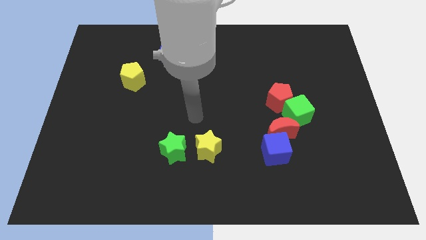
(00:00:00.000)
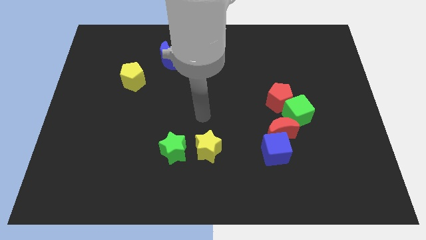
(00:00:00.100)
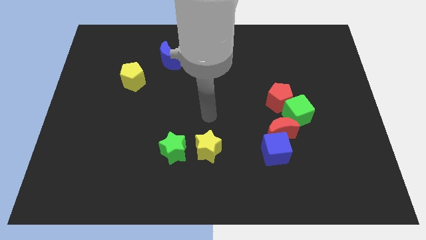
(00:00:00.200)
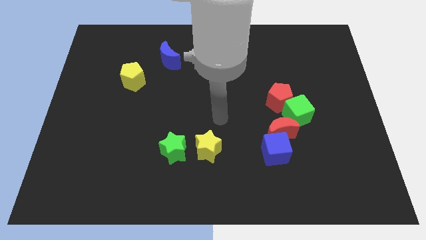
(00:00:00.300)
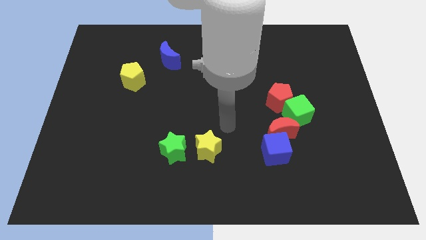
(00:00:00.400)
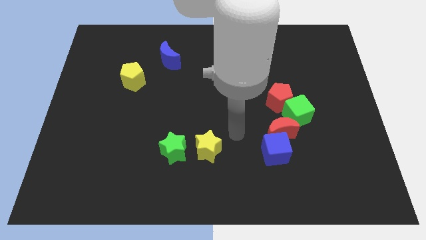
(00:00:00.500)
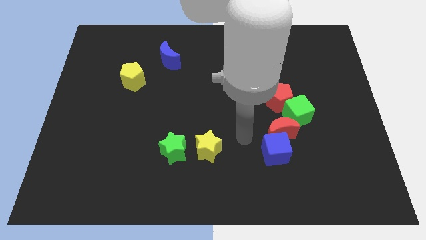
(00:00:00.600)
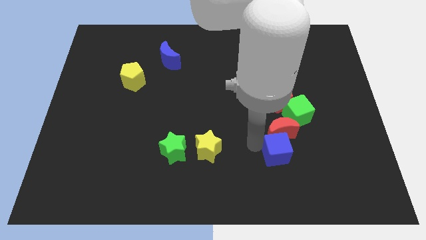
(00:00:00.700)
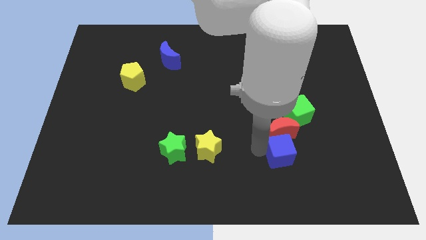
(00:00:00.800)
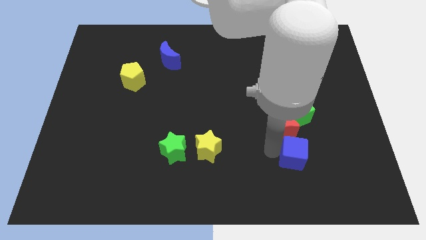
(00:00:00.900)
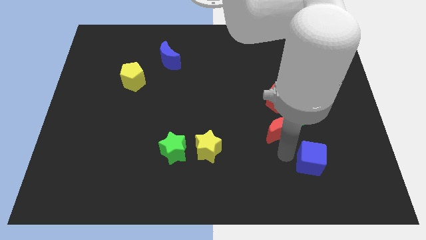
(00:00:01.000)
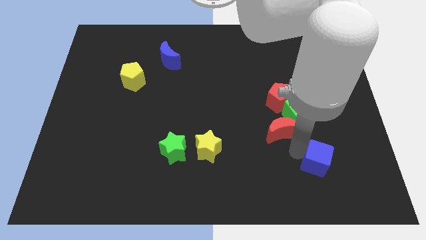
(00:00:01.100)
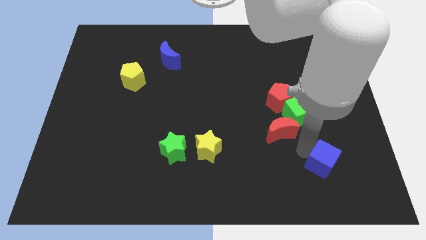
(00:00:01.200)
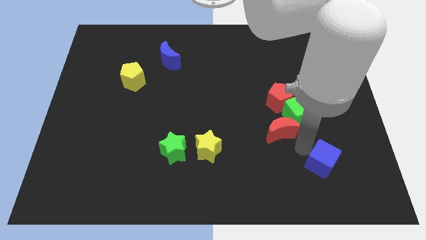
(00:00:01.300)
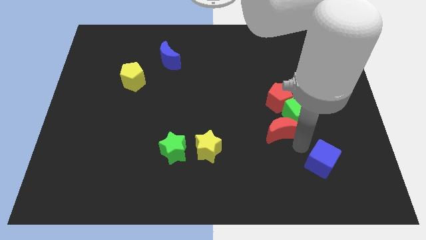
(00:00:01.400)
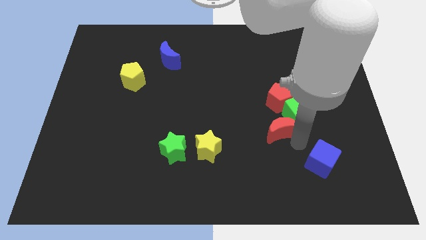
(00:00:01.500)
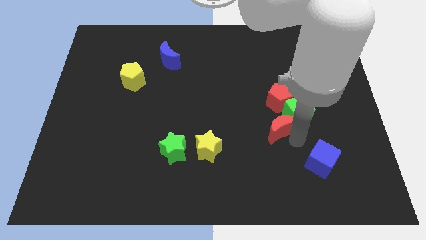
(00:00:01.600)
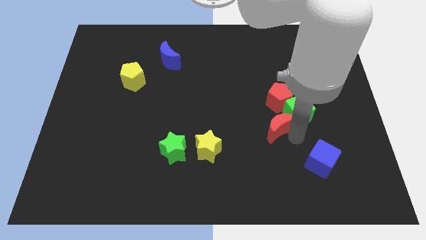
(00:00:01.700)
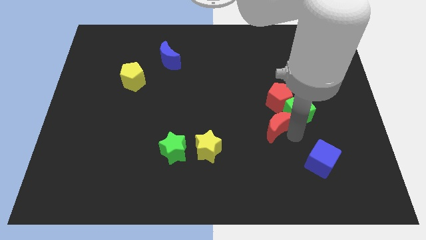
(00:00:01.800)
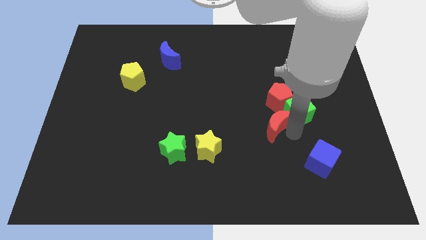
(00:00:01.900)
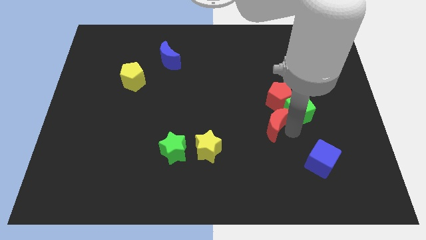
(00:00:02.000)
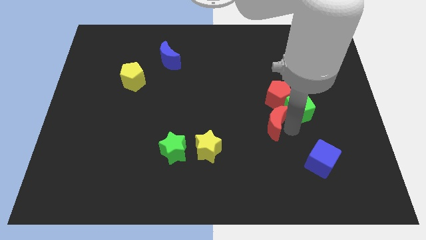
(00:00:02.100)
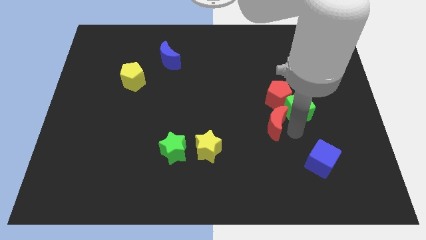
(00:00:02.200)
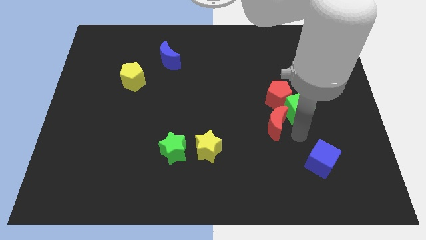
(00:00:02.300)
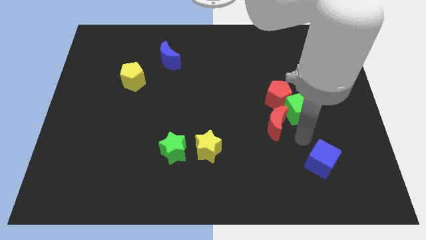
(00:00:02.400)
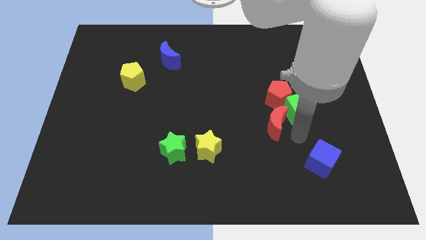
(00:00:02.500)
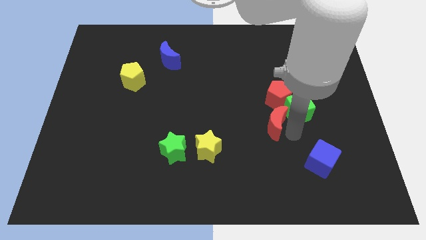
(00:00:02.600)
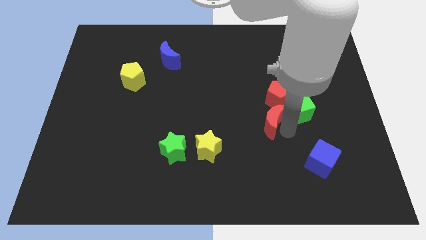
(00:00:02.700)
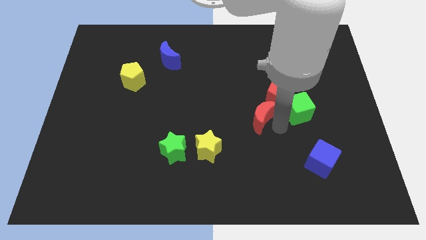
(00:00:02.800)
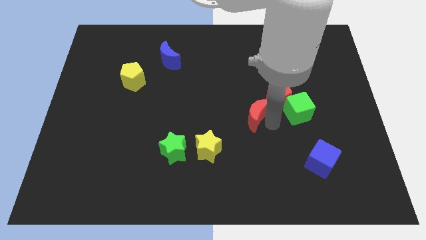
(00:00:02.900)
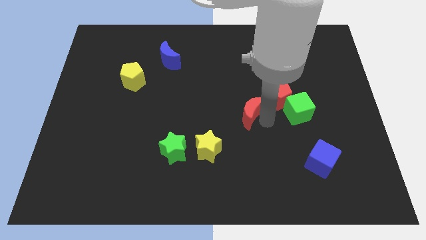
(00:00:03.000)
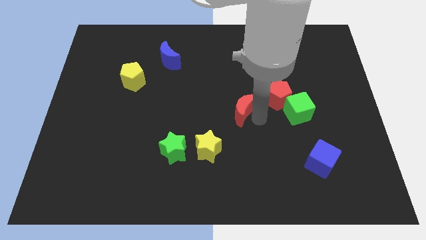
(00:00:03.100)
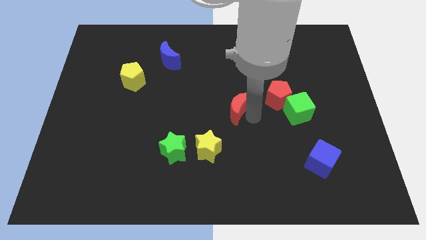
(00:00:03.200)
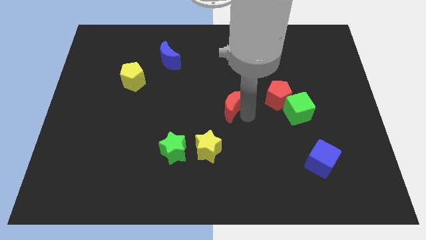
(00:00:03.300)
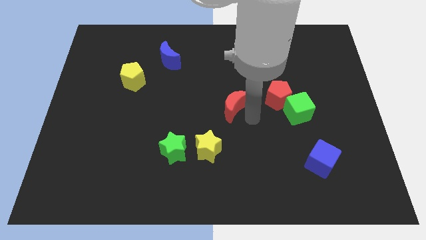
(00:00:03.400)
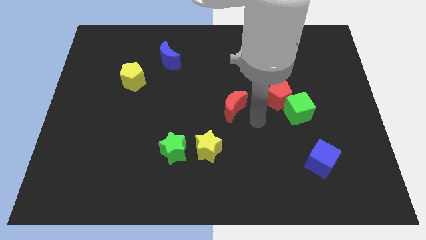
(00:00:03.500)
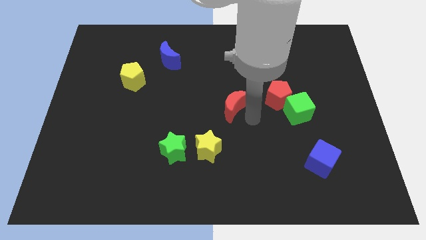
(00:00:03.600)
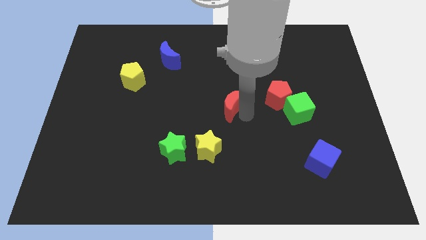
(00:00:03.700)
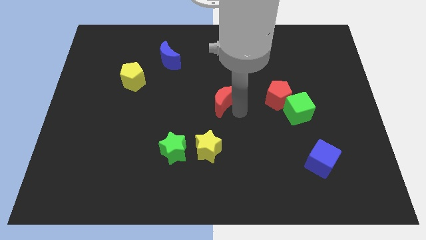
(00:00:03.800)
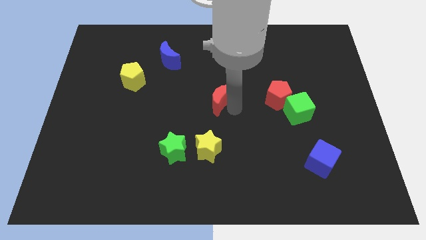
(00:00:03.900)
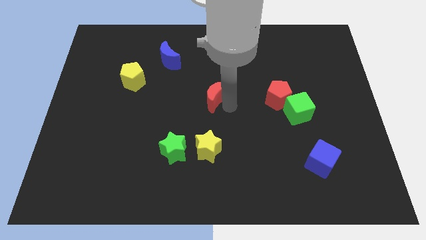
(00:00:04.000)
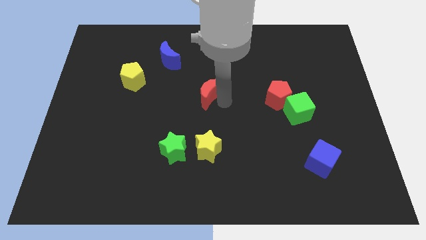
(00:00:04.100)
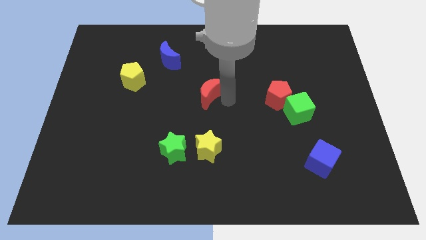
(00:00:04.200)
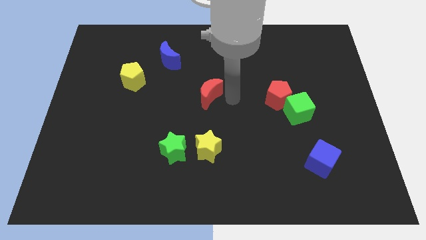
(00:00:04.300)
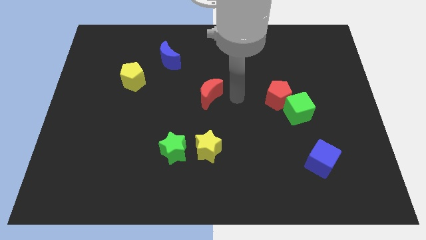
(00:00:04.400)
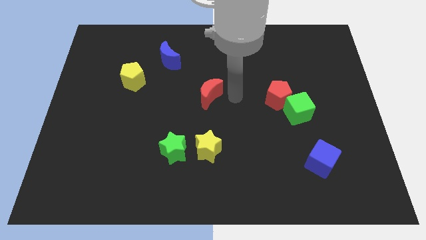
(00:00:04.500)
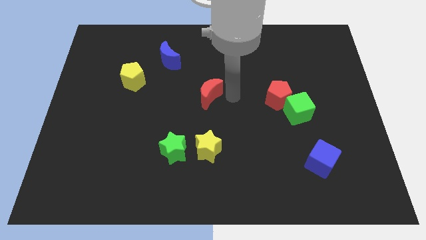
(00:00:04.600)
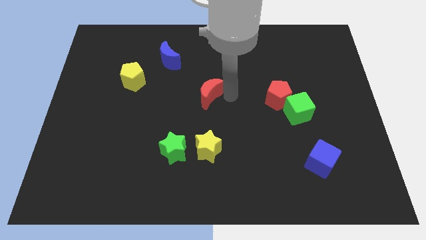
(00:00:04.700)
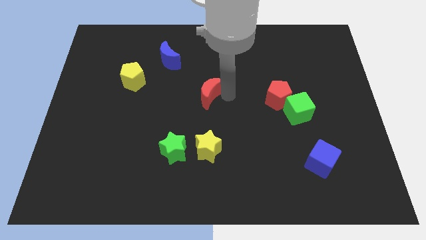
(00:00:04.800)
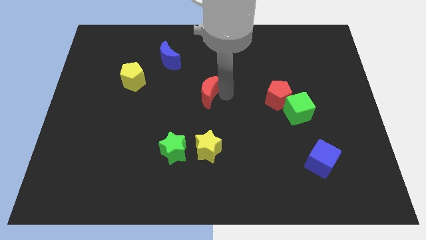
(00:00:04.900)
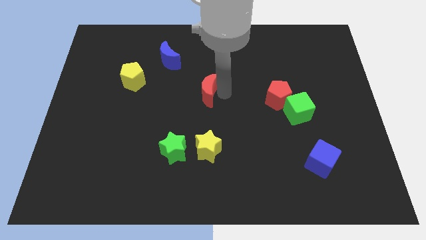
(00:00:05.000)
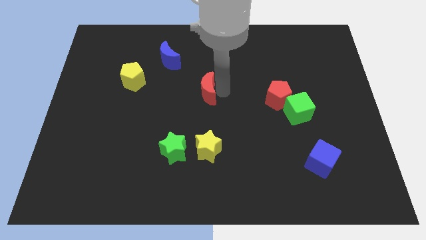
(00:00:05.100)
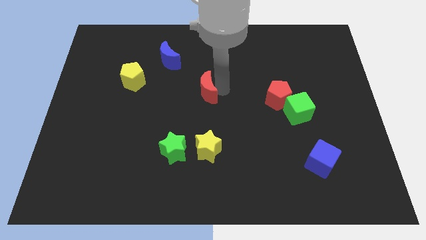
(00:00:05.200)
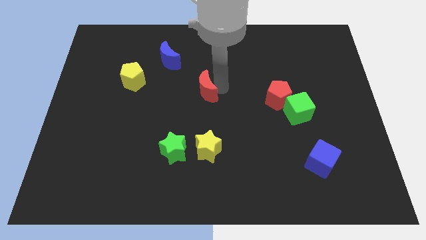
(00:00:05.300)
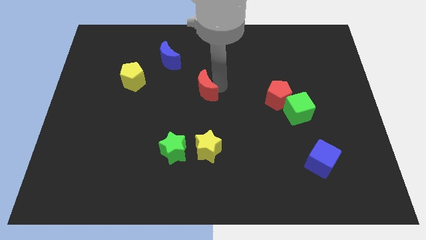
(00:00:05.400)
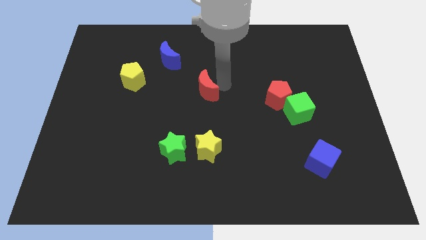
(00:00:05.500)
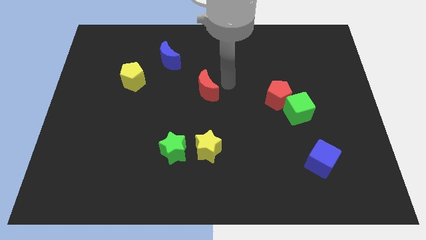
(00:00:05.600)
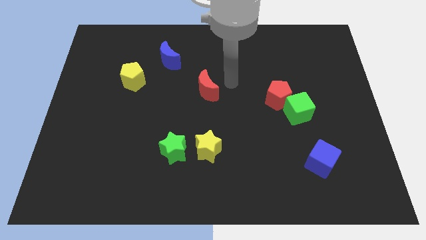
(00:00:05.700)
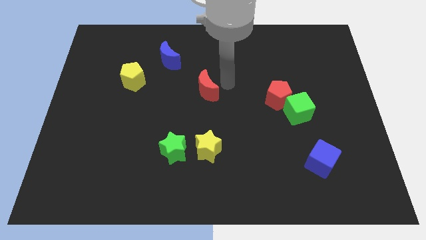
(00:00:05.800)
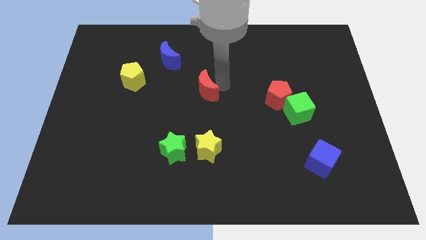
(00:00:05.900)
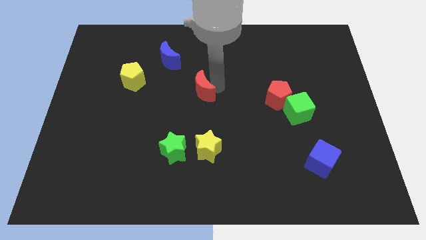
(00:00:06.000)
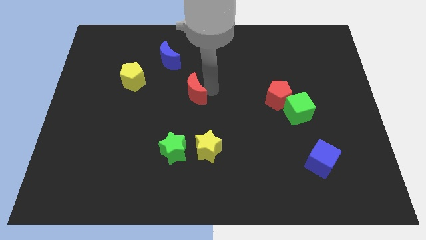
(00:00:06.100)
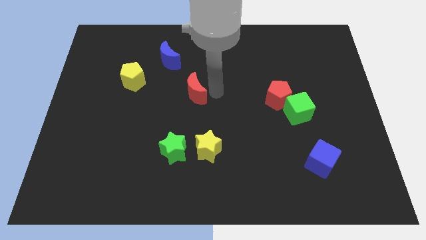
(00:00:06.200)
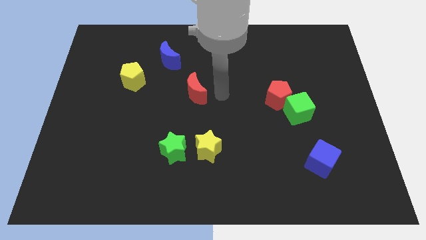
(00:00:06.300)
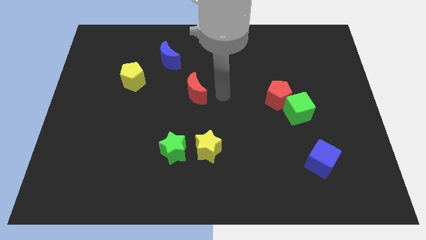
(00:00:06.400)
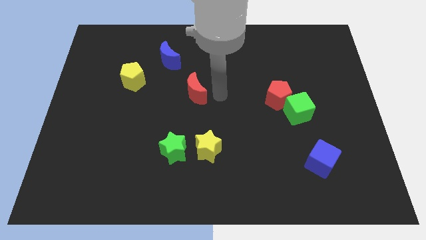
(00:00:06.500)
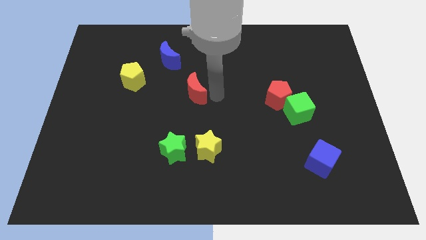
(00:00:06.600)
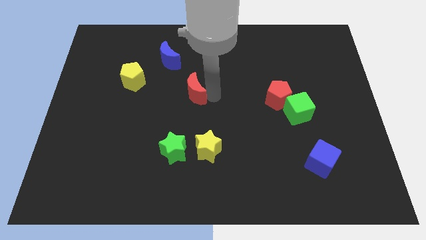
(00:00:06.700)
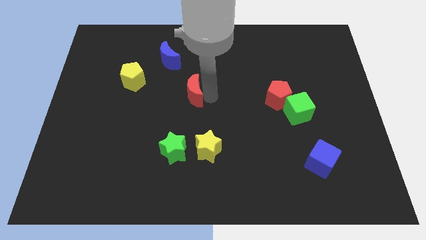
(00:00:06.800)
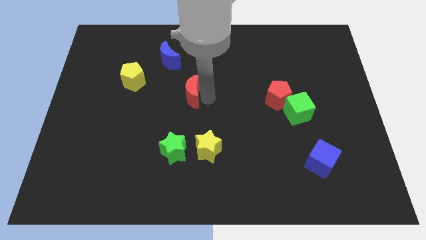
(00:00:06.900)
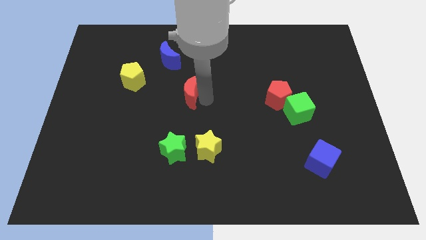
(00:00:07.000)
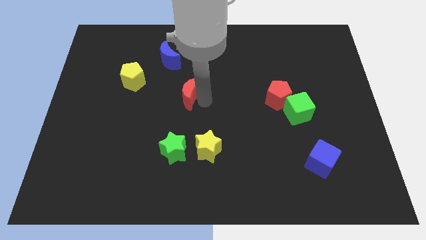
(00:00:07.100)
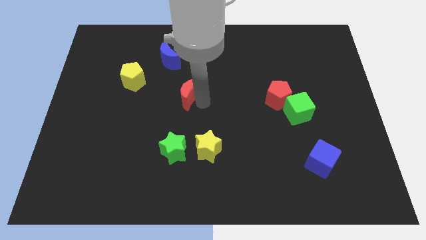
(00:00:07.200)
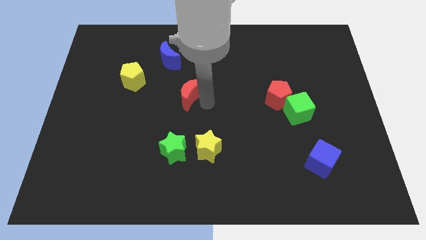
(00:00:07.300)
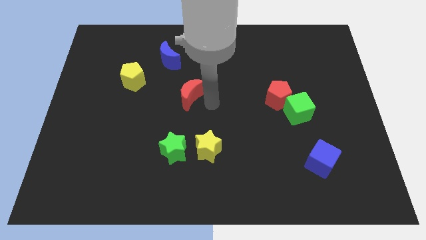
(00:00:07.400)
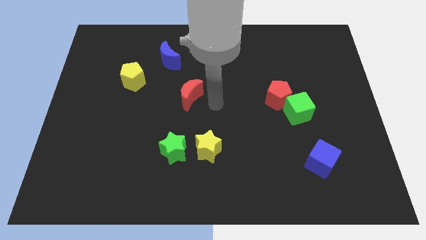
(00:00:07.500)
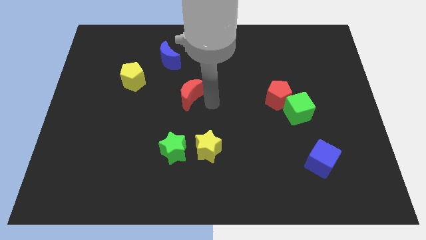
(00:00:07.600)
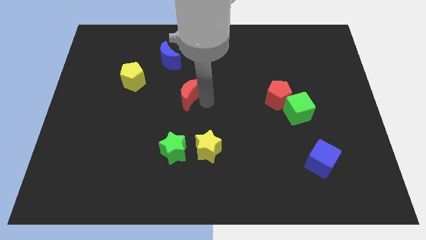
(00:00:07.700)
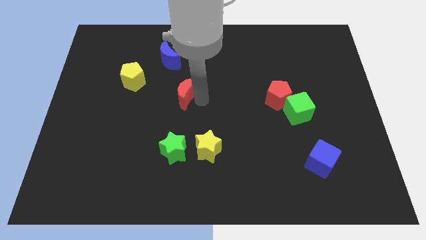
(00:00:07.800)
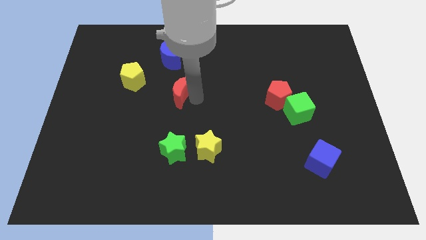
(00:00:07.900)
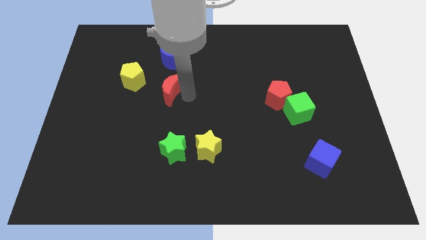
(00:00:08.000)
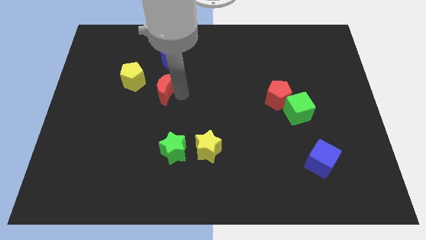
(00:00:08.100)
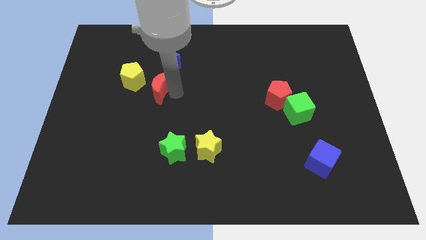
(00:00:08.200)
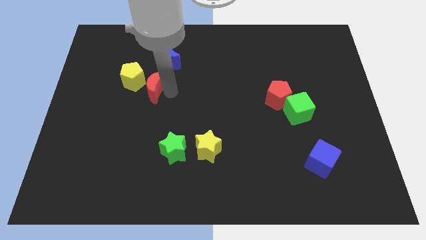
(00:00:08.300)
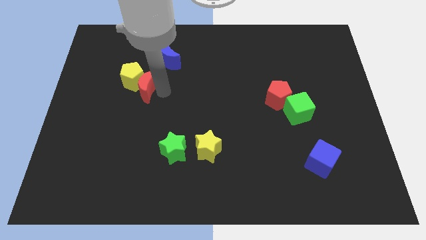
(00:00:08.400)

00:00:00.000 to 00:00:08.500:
move the red moon to the yellow pentagon

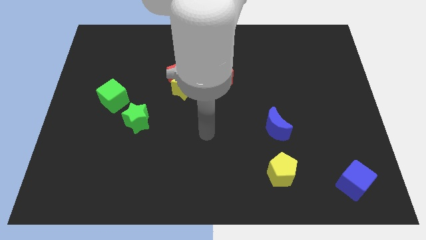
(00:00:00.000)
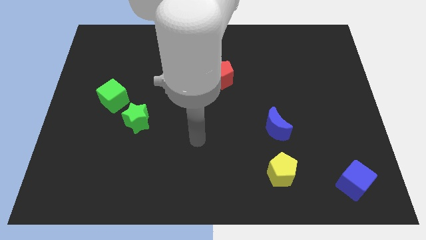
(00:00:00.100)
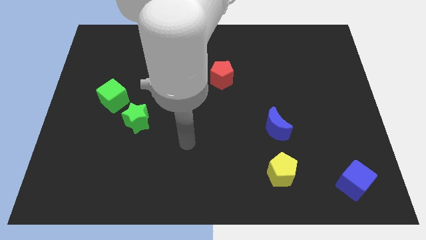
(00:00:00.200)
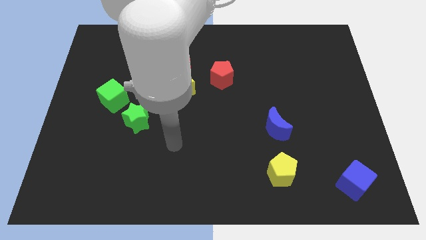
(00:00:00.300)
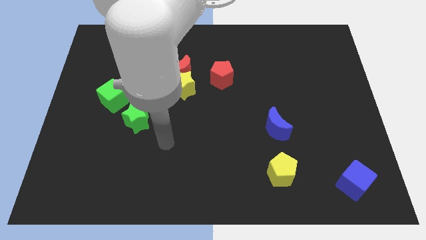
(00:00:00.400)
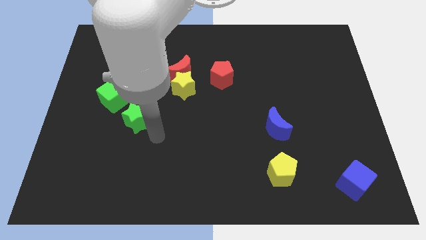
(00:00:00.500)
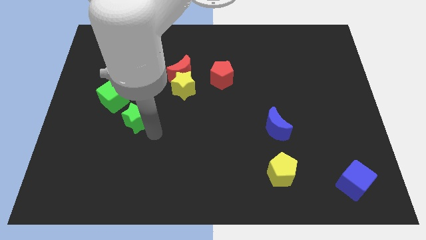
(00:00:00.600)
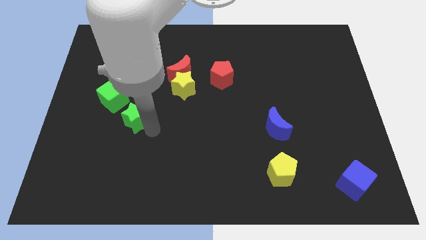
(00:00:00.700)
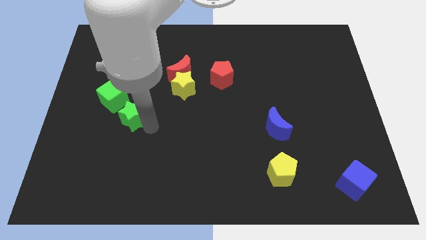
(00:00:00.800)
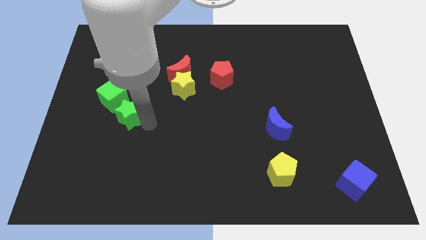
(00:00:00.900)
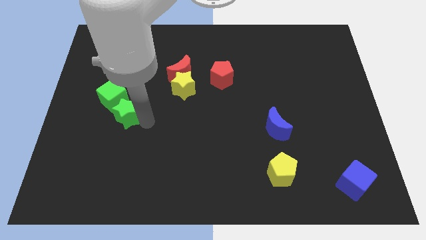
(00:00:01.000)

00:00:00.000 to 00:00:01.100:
slide the green star to the green cube
